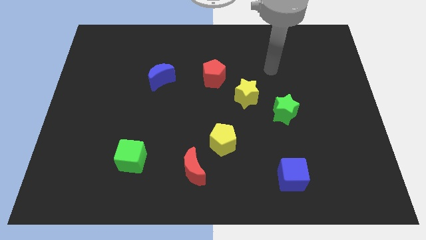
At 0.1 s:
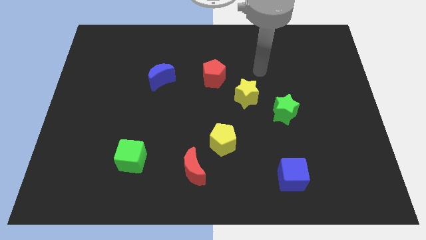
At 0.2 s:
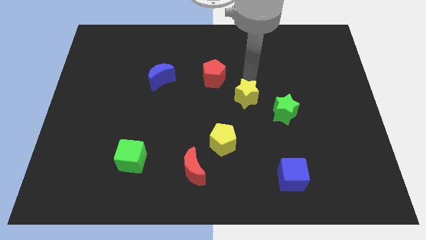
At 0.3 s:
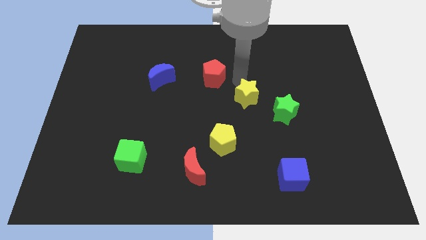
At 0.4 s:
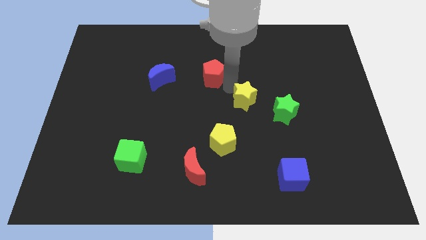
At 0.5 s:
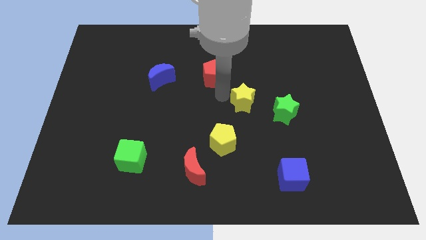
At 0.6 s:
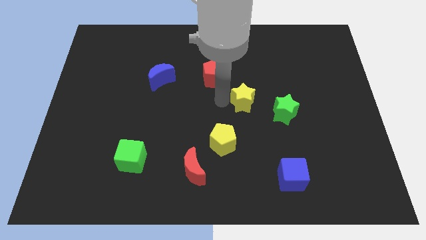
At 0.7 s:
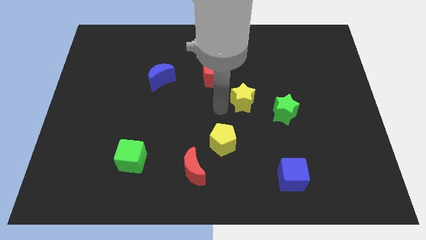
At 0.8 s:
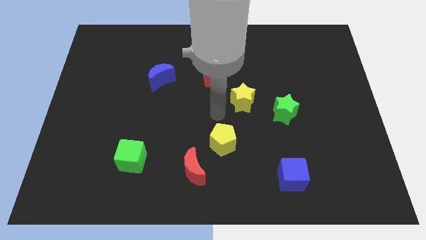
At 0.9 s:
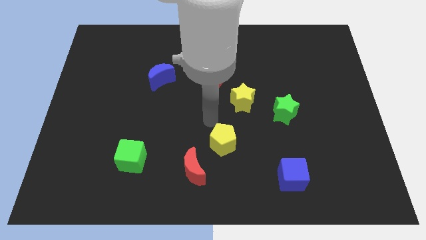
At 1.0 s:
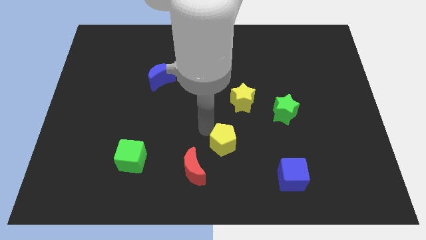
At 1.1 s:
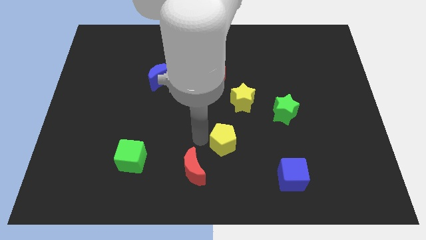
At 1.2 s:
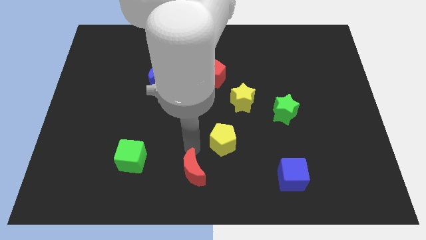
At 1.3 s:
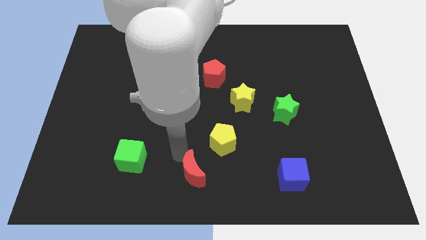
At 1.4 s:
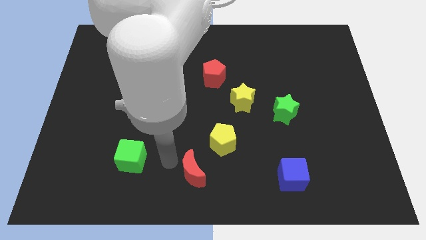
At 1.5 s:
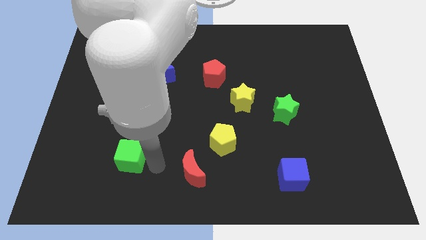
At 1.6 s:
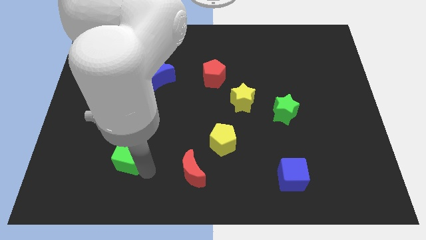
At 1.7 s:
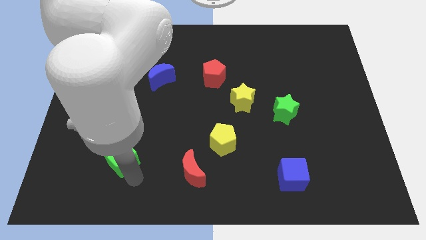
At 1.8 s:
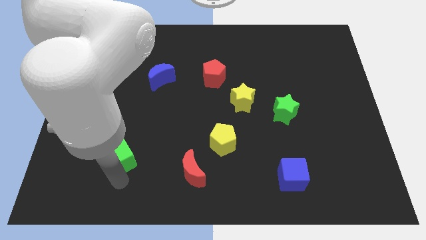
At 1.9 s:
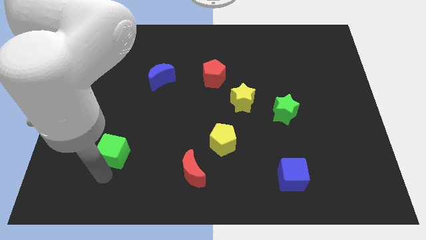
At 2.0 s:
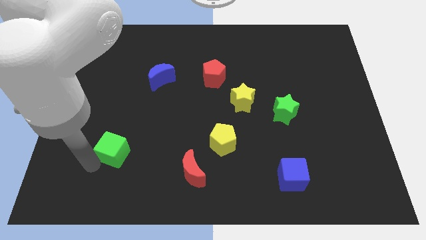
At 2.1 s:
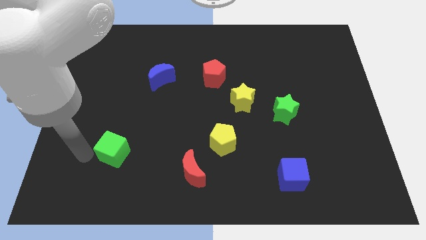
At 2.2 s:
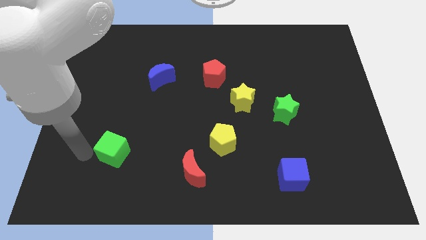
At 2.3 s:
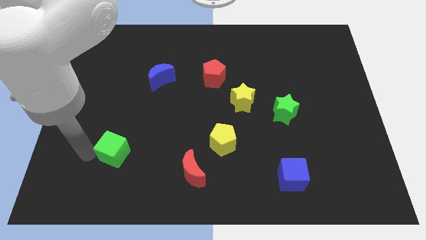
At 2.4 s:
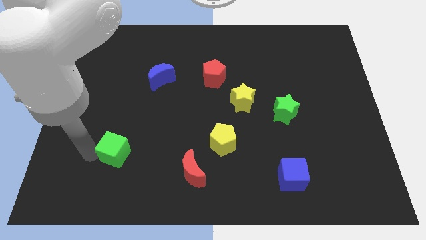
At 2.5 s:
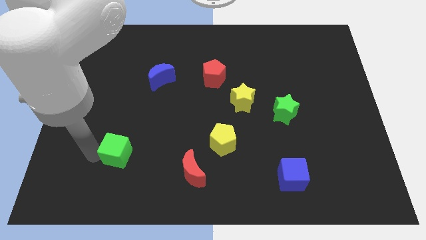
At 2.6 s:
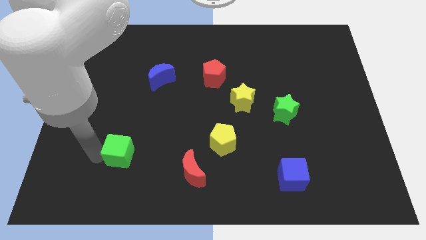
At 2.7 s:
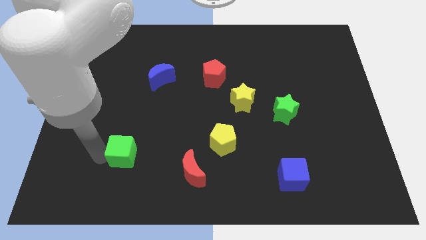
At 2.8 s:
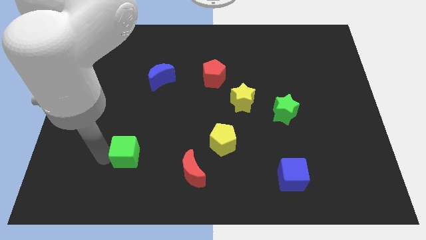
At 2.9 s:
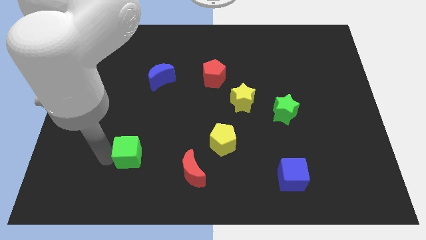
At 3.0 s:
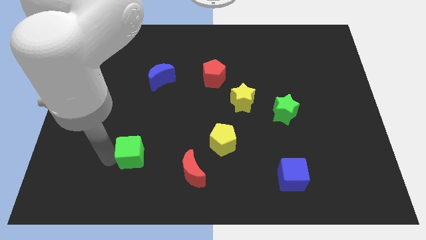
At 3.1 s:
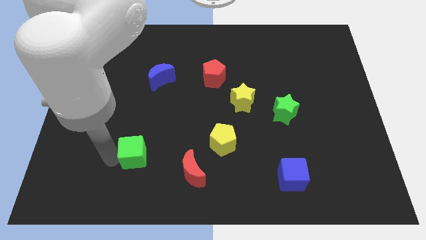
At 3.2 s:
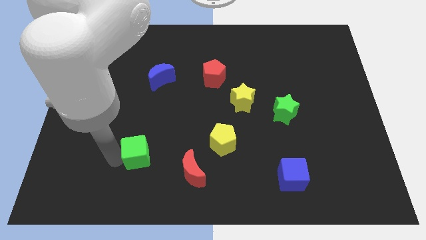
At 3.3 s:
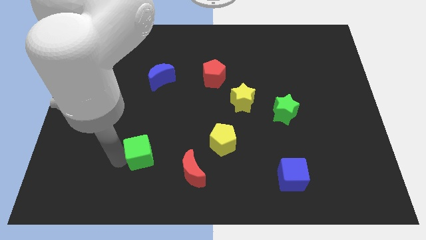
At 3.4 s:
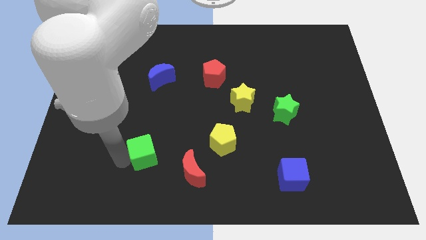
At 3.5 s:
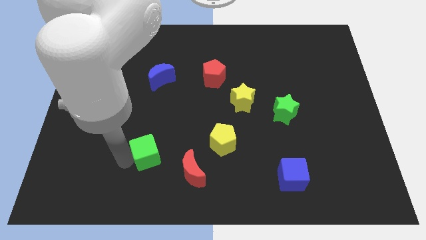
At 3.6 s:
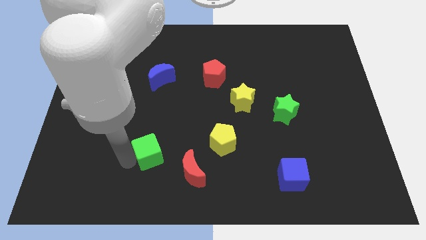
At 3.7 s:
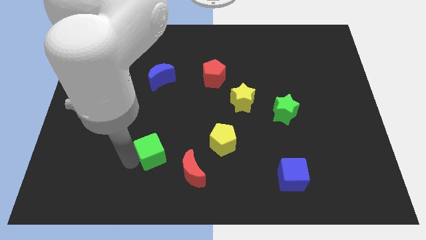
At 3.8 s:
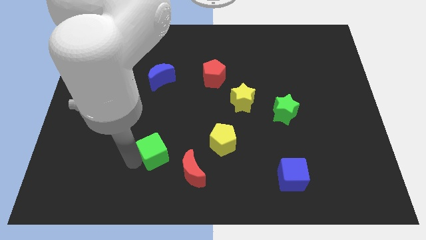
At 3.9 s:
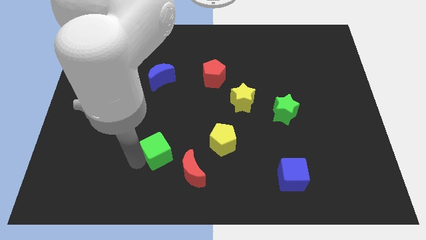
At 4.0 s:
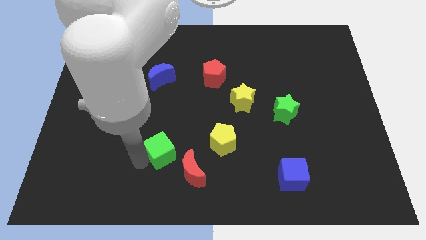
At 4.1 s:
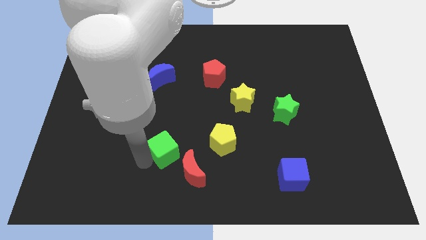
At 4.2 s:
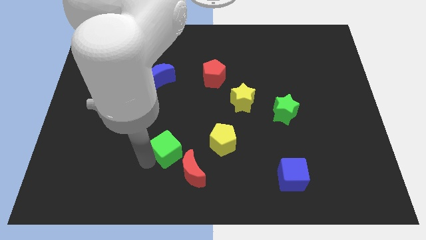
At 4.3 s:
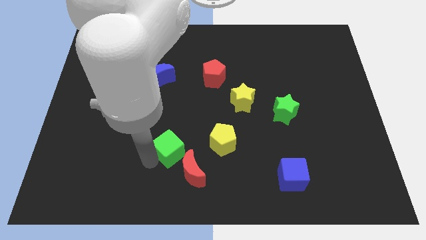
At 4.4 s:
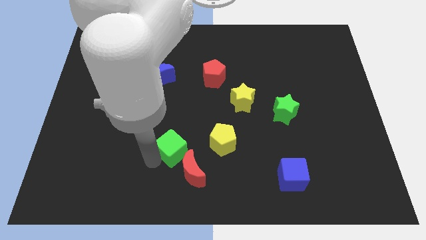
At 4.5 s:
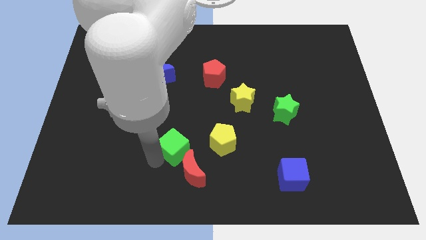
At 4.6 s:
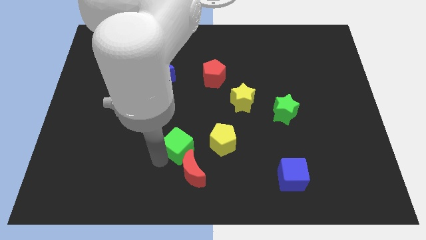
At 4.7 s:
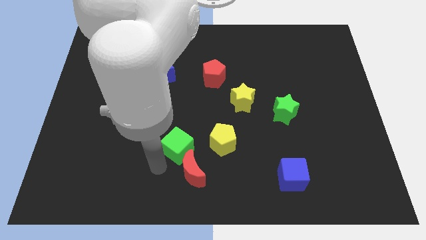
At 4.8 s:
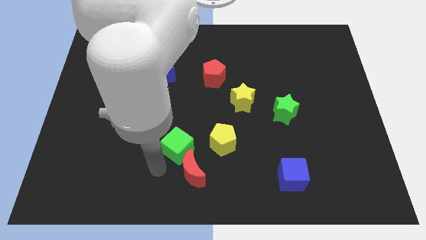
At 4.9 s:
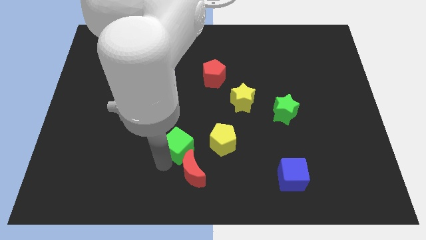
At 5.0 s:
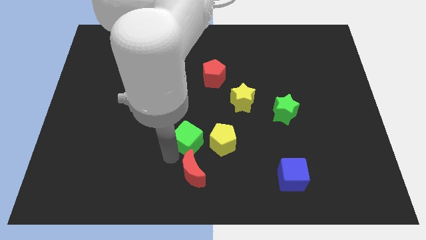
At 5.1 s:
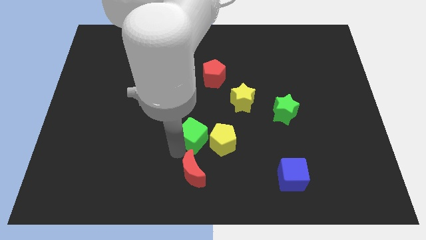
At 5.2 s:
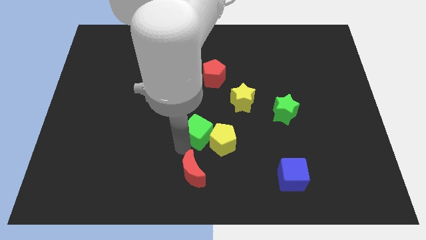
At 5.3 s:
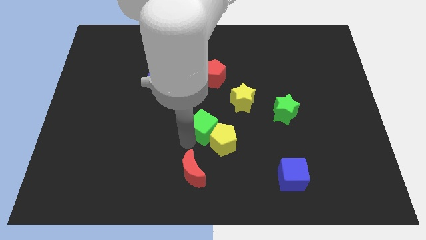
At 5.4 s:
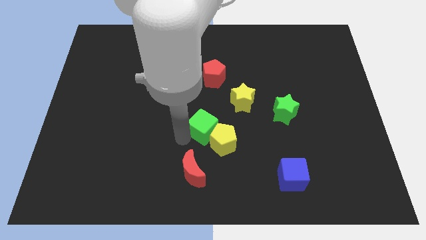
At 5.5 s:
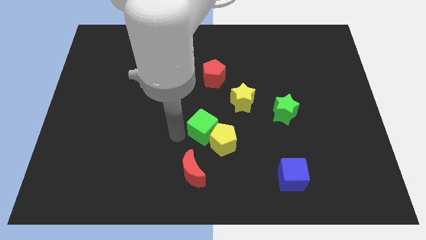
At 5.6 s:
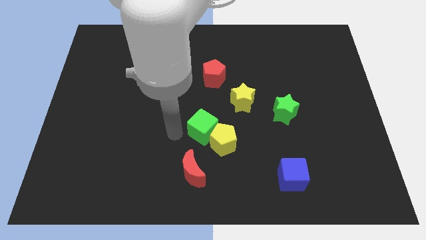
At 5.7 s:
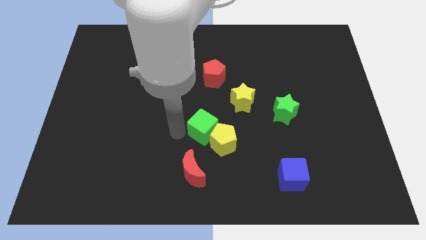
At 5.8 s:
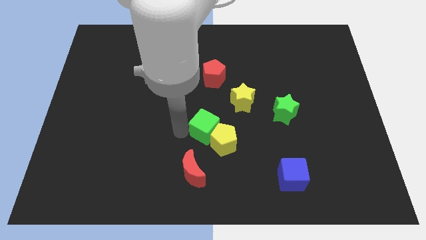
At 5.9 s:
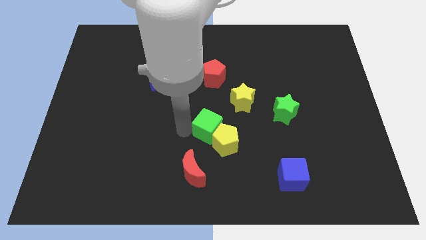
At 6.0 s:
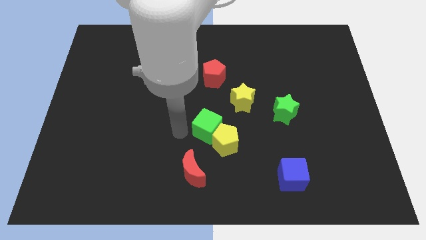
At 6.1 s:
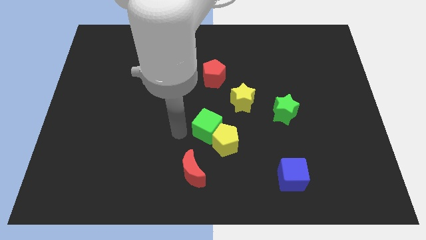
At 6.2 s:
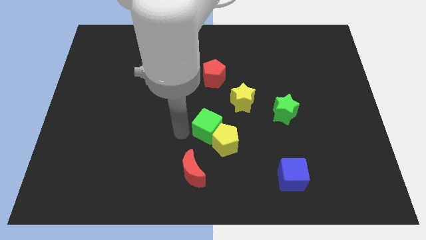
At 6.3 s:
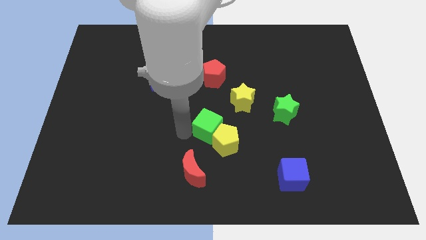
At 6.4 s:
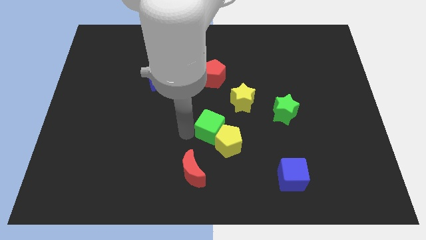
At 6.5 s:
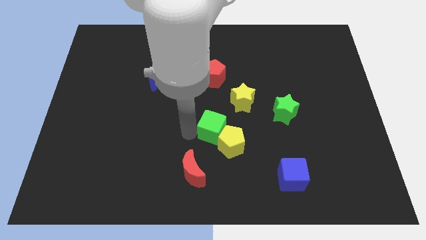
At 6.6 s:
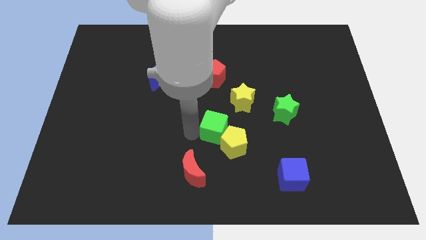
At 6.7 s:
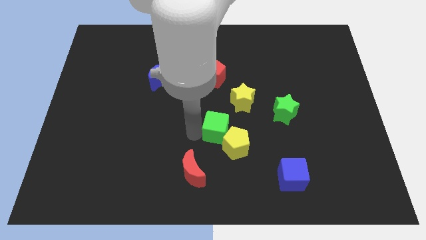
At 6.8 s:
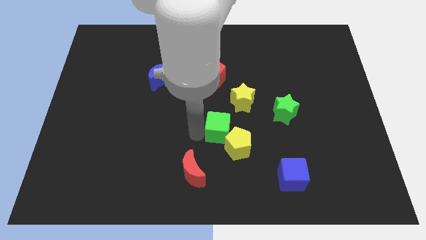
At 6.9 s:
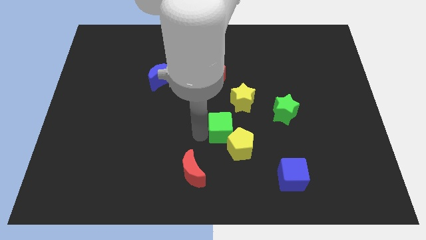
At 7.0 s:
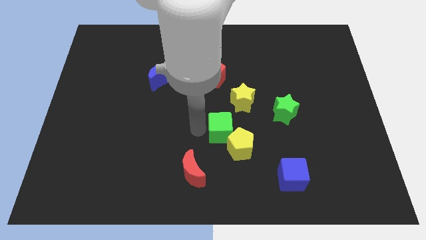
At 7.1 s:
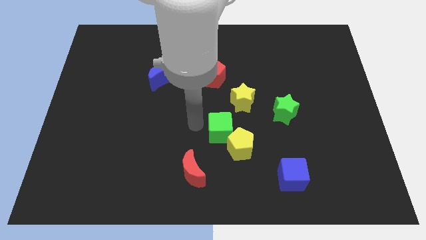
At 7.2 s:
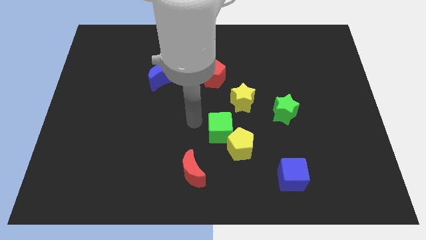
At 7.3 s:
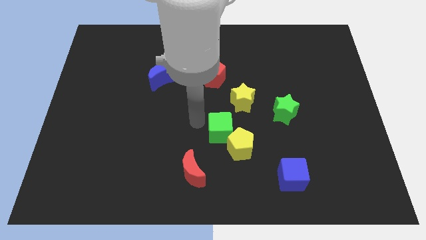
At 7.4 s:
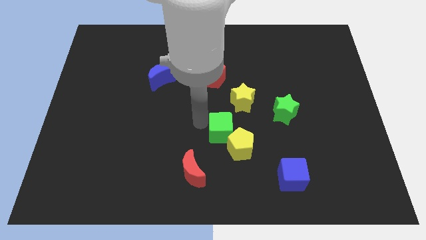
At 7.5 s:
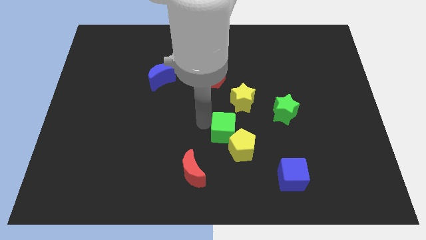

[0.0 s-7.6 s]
push the green cube to the bottom of the yellow star
